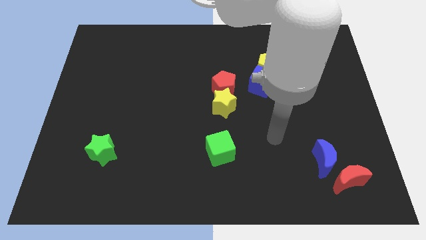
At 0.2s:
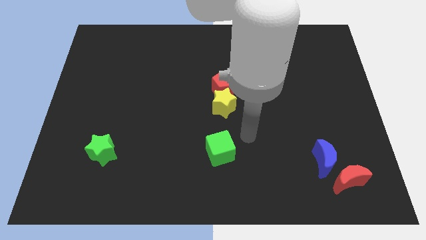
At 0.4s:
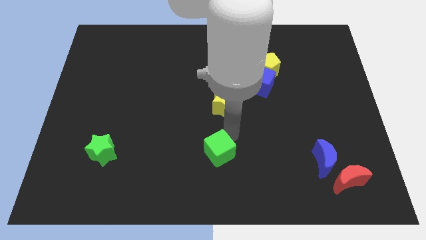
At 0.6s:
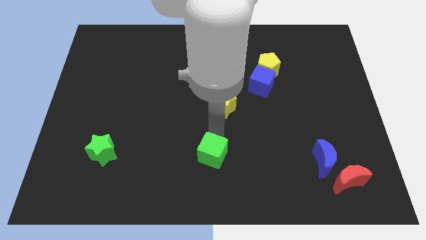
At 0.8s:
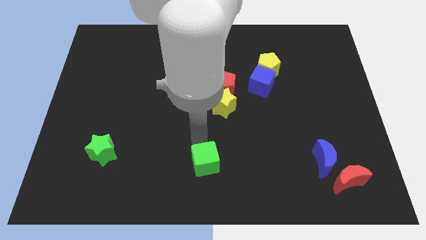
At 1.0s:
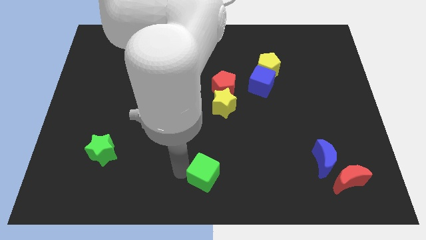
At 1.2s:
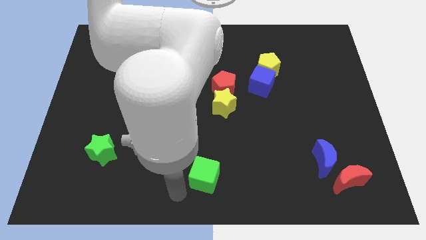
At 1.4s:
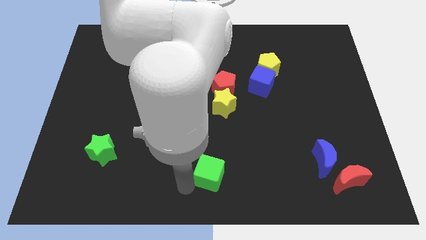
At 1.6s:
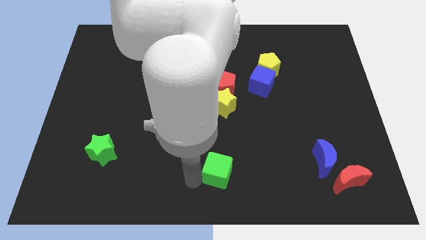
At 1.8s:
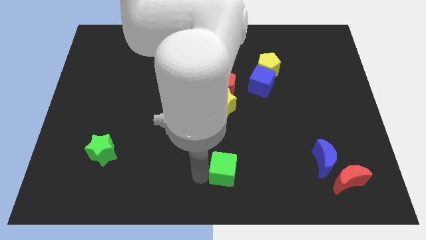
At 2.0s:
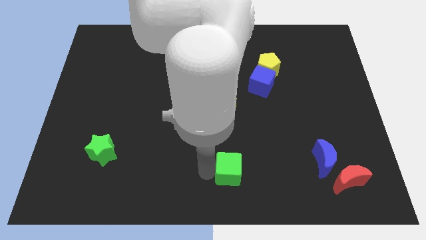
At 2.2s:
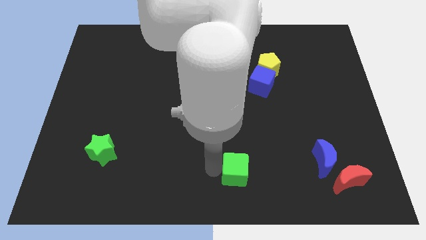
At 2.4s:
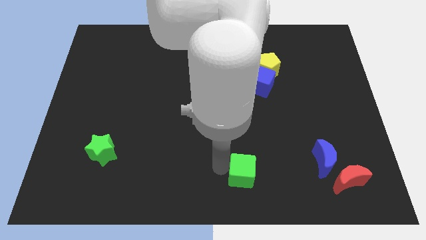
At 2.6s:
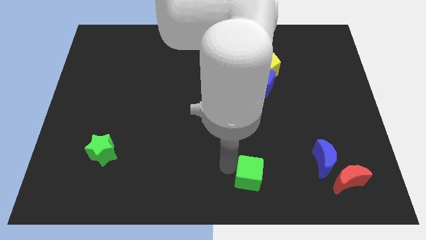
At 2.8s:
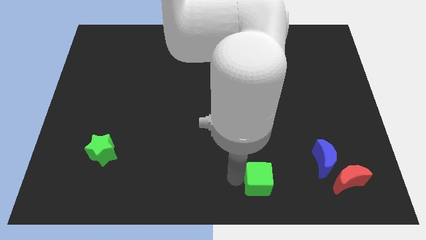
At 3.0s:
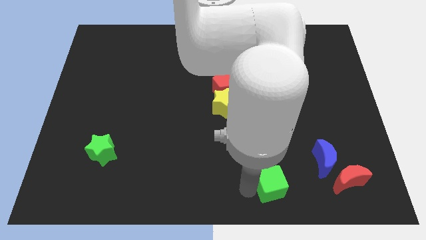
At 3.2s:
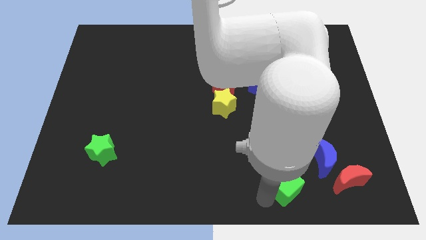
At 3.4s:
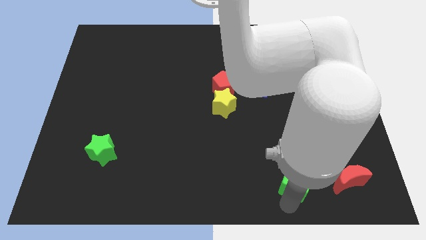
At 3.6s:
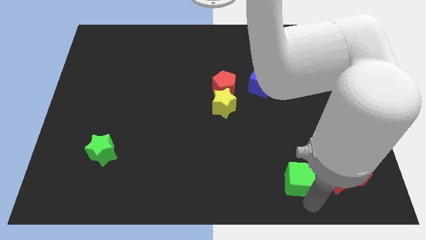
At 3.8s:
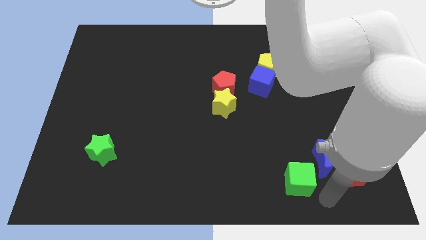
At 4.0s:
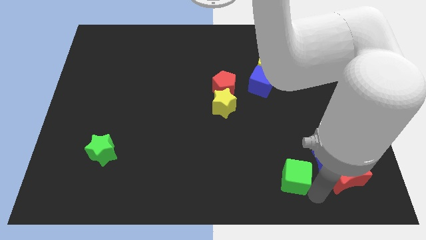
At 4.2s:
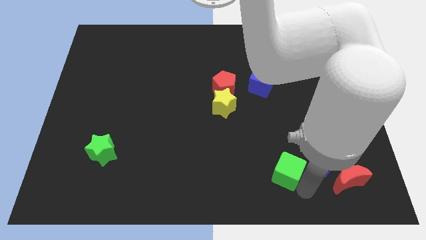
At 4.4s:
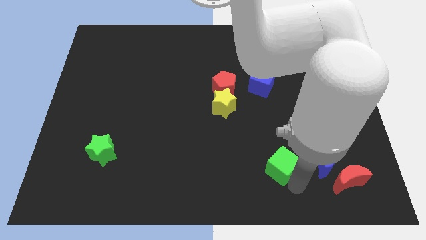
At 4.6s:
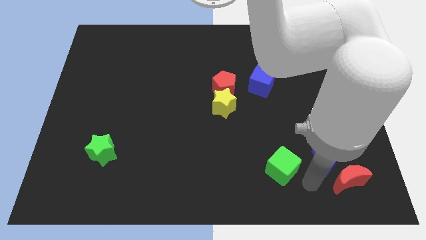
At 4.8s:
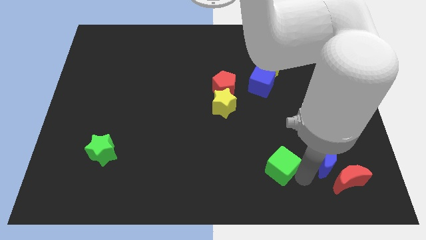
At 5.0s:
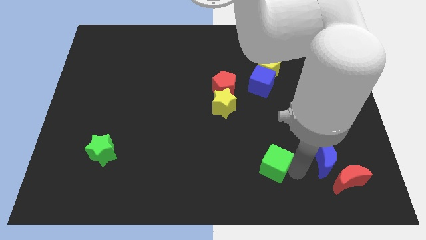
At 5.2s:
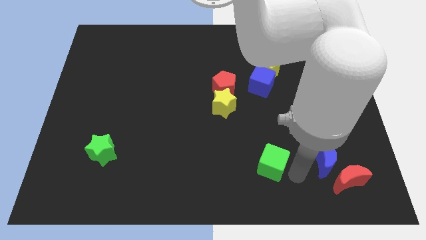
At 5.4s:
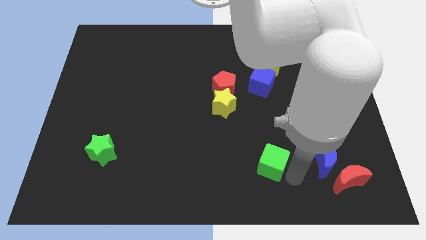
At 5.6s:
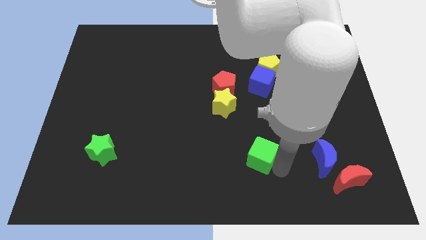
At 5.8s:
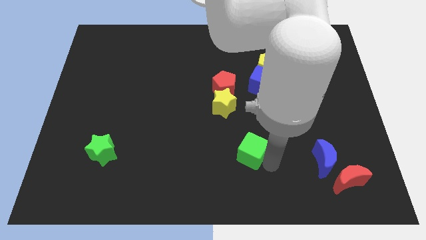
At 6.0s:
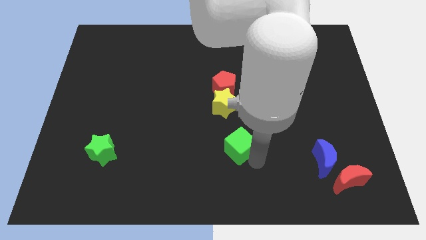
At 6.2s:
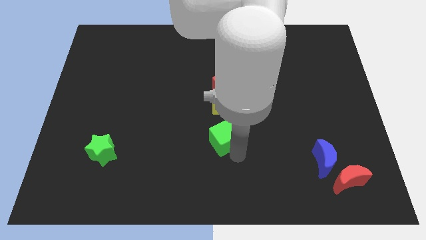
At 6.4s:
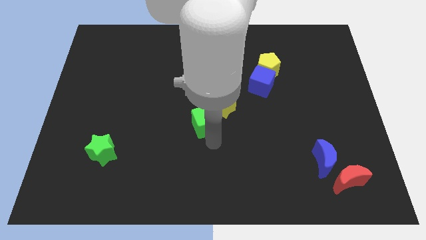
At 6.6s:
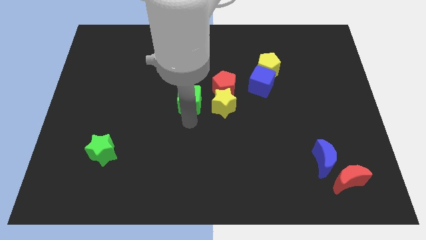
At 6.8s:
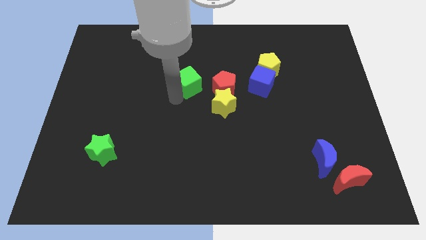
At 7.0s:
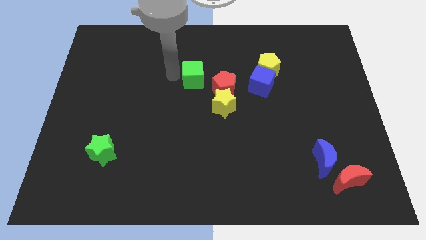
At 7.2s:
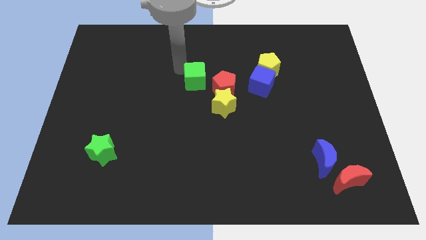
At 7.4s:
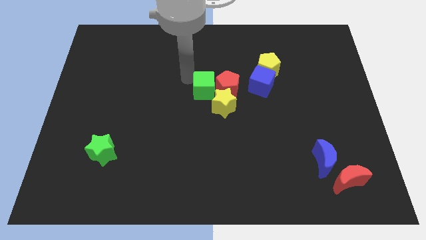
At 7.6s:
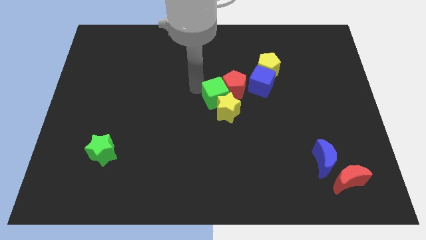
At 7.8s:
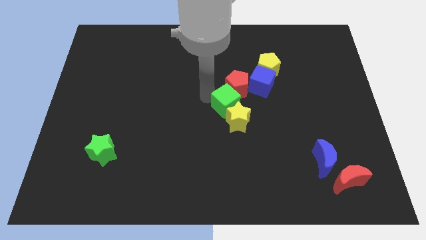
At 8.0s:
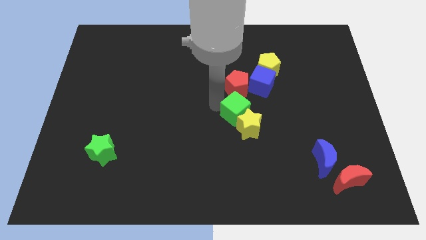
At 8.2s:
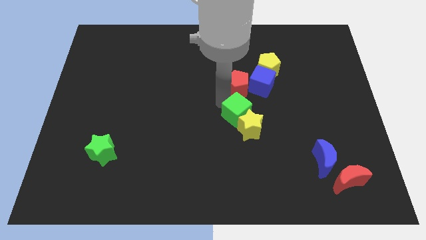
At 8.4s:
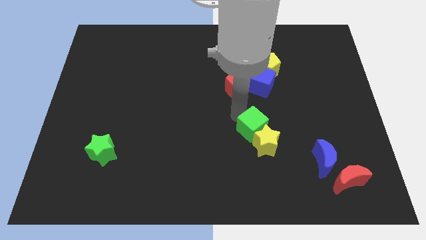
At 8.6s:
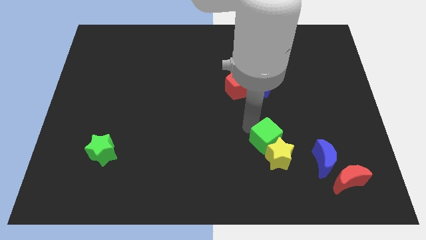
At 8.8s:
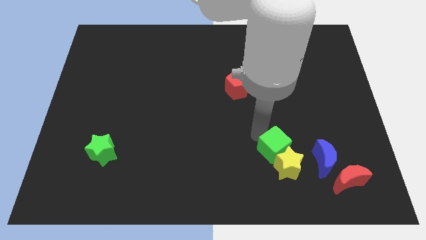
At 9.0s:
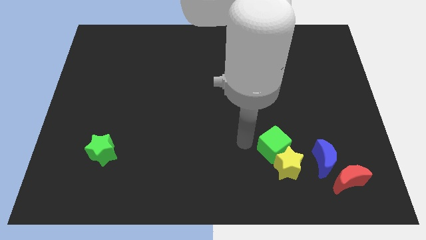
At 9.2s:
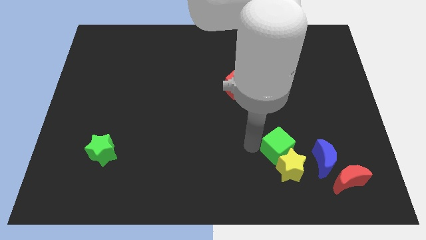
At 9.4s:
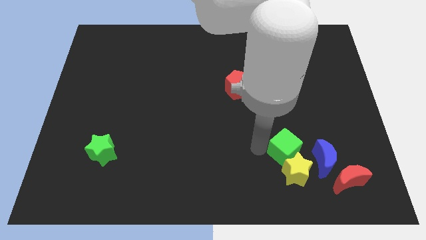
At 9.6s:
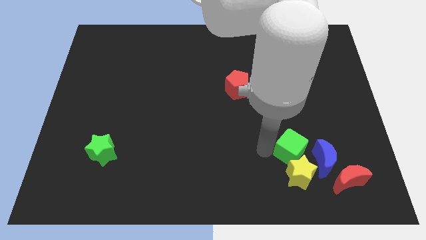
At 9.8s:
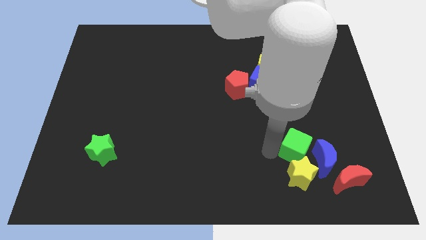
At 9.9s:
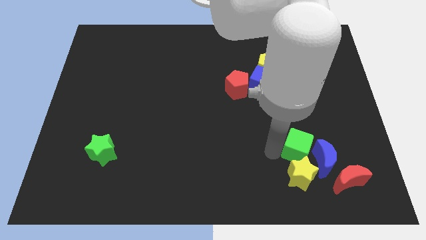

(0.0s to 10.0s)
move the green cube to the blue moon

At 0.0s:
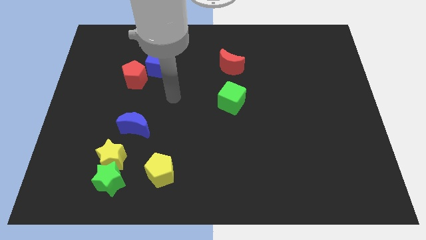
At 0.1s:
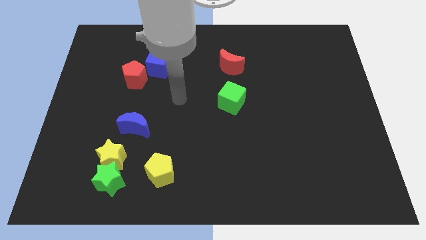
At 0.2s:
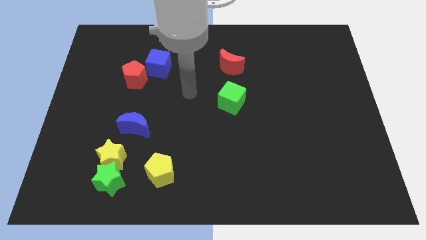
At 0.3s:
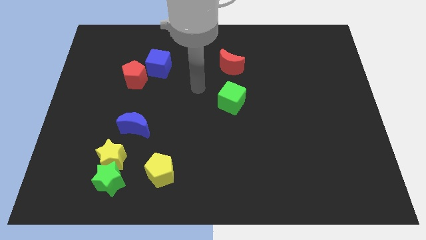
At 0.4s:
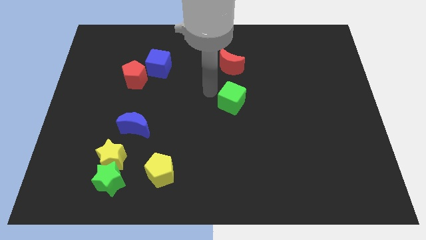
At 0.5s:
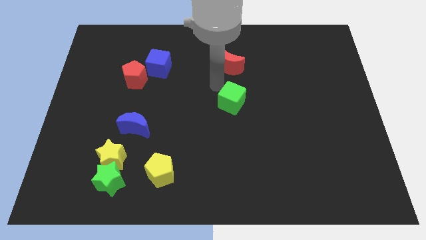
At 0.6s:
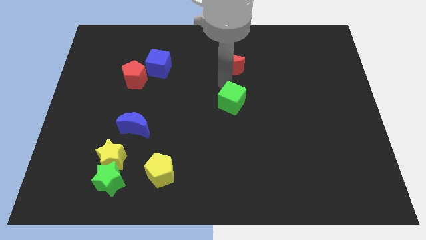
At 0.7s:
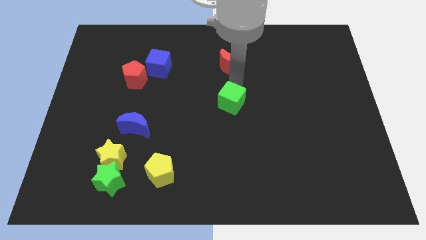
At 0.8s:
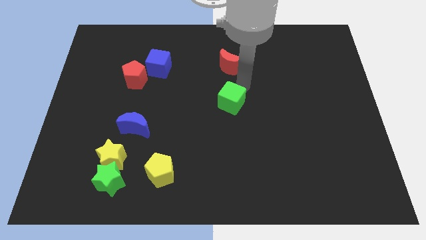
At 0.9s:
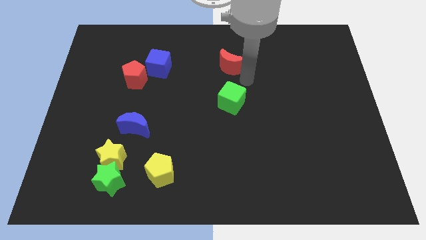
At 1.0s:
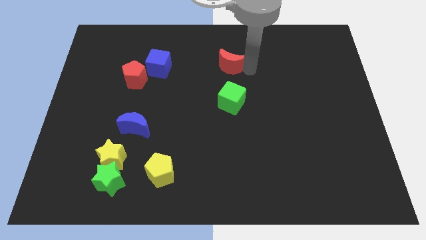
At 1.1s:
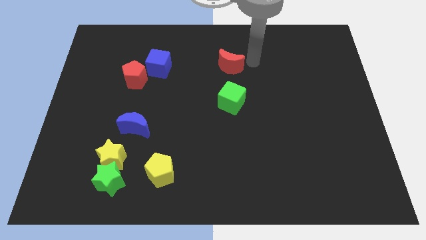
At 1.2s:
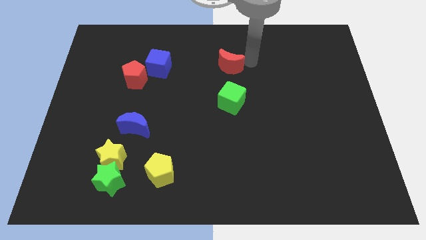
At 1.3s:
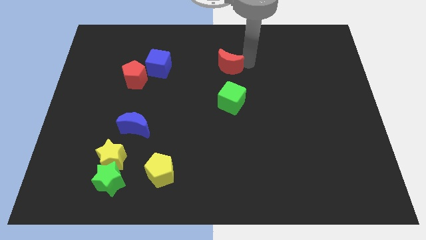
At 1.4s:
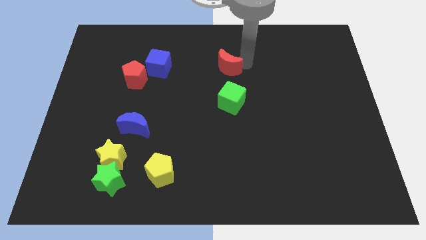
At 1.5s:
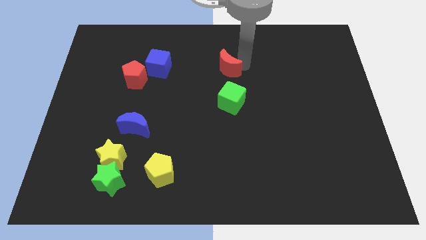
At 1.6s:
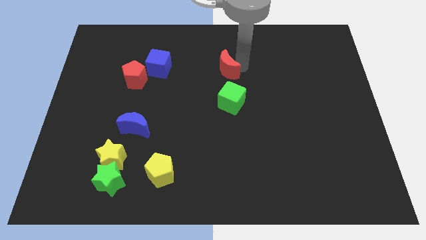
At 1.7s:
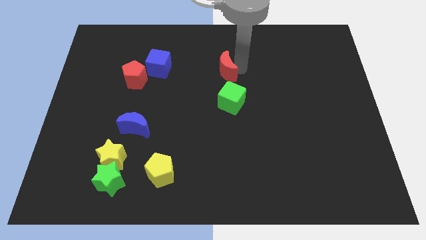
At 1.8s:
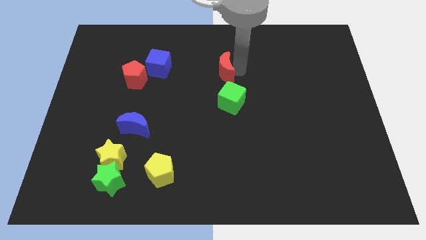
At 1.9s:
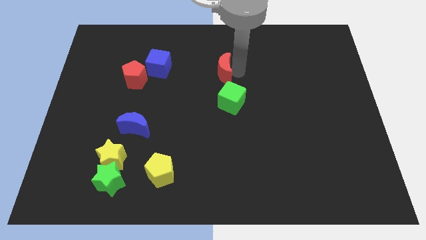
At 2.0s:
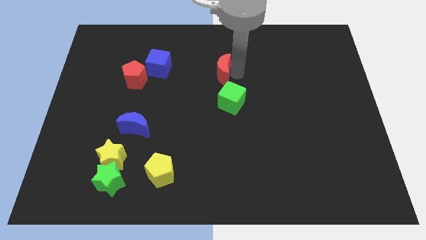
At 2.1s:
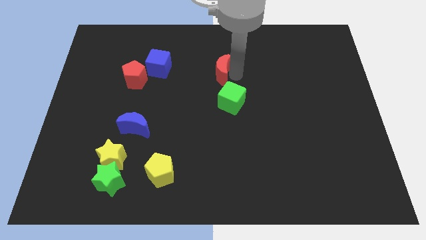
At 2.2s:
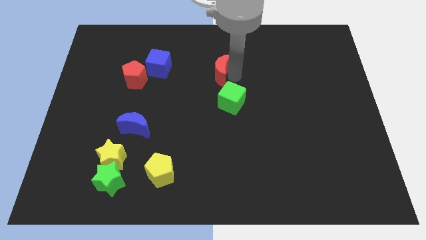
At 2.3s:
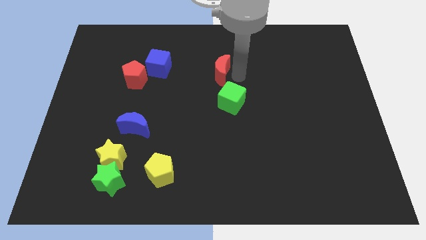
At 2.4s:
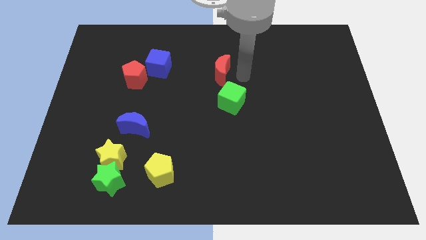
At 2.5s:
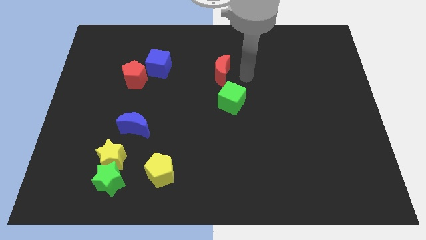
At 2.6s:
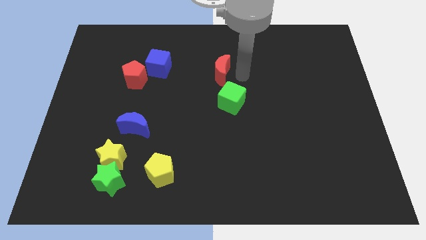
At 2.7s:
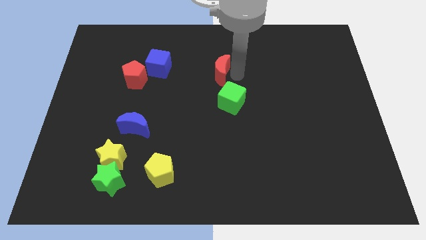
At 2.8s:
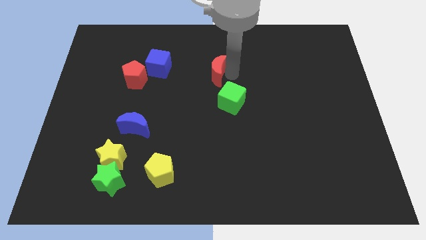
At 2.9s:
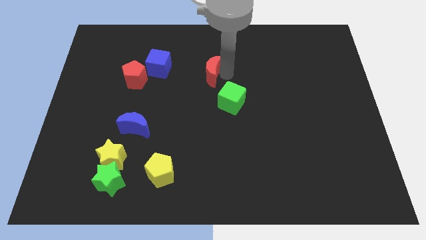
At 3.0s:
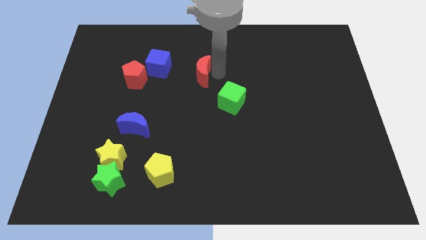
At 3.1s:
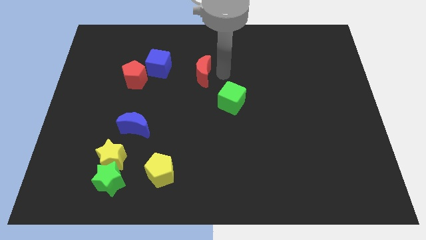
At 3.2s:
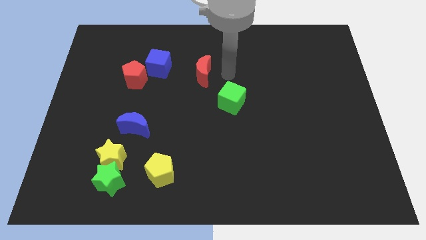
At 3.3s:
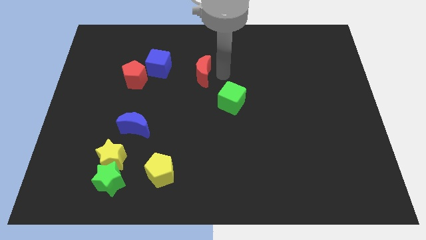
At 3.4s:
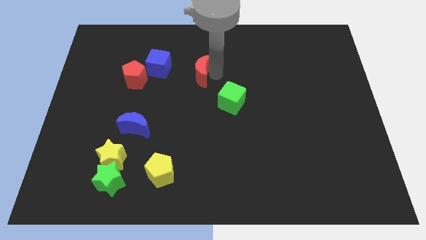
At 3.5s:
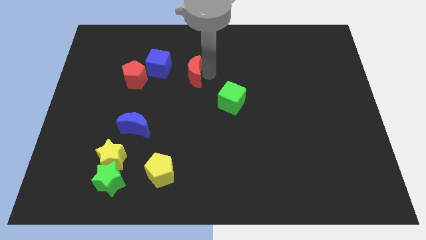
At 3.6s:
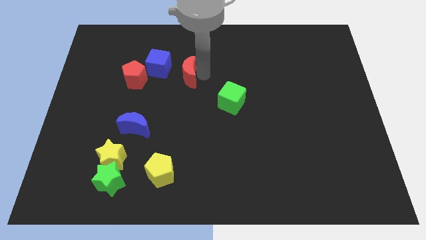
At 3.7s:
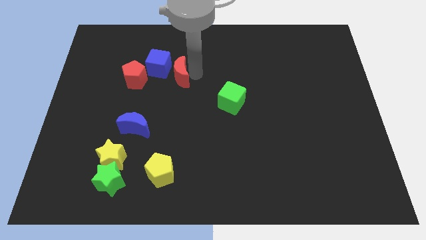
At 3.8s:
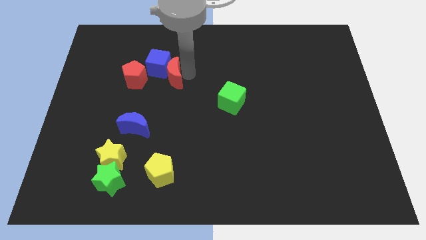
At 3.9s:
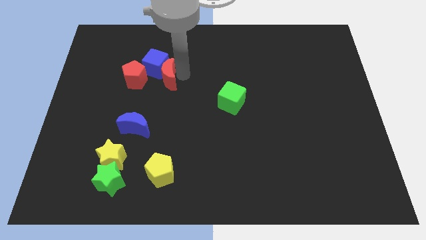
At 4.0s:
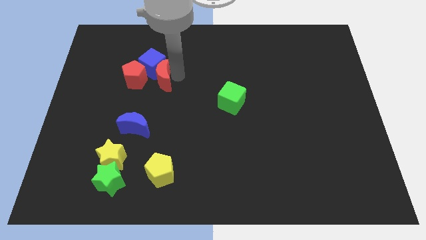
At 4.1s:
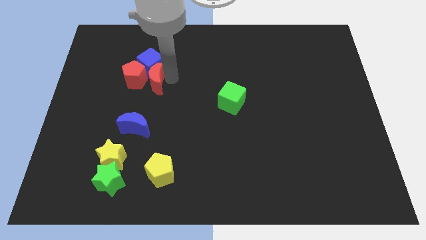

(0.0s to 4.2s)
slide the red moon to the red pentagon
